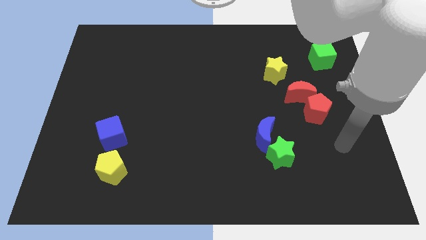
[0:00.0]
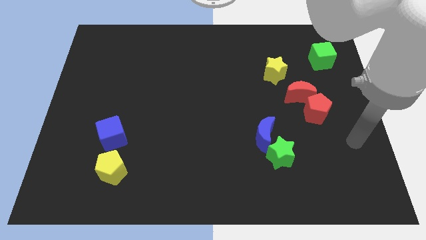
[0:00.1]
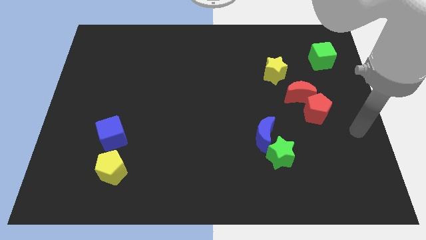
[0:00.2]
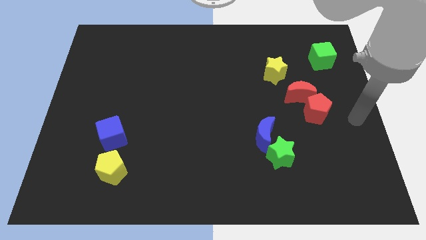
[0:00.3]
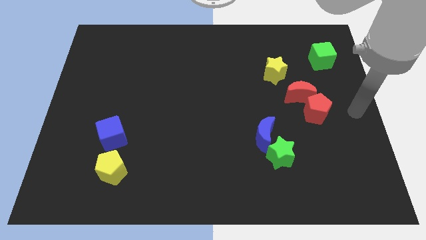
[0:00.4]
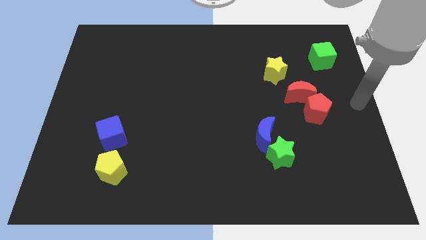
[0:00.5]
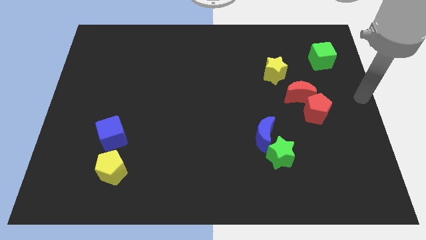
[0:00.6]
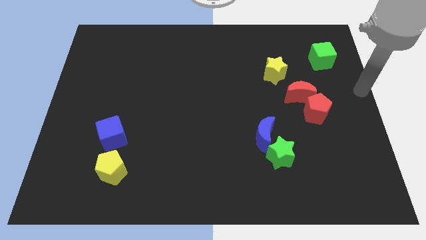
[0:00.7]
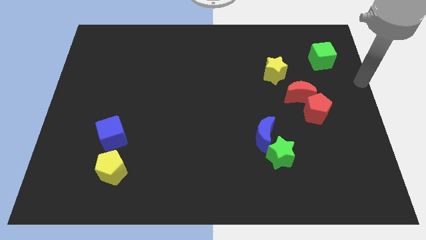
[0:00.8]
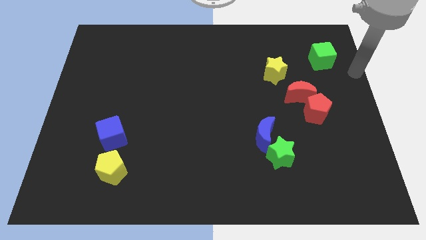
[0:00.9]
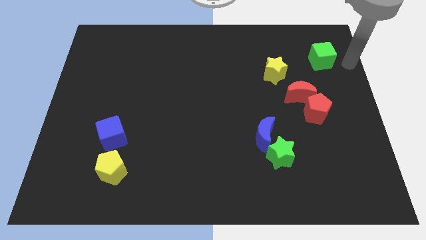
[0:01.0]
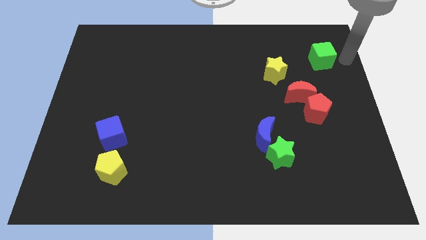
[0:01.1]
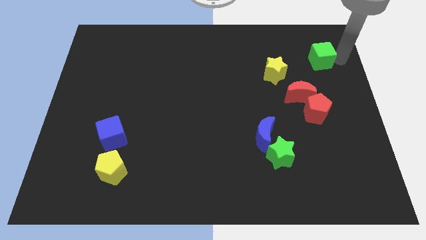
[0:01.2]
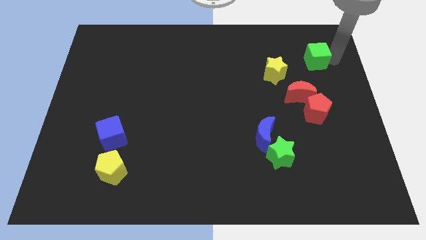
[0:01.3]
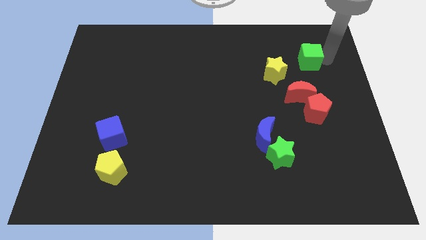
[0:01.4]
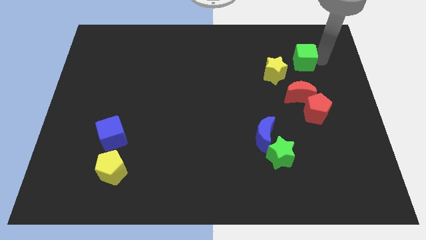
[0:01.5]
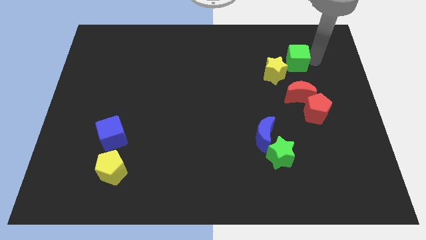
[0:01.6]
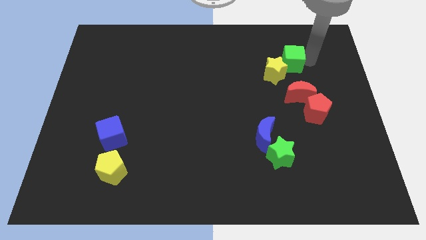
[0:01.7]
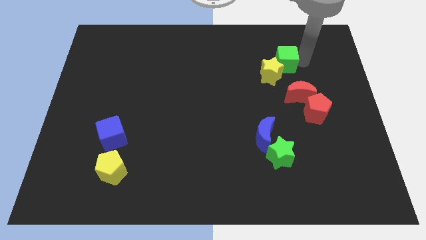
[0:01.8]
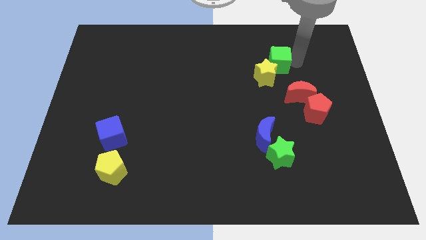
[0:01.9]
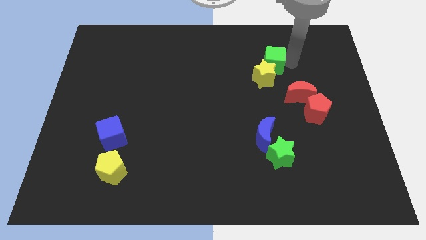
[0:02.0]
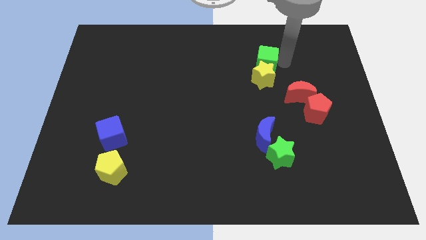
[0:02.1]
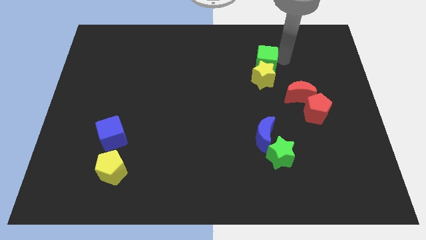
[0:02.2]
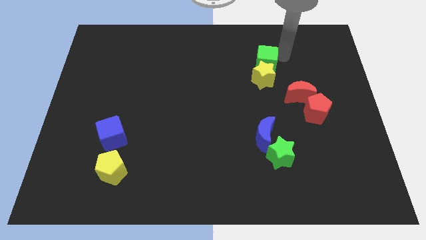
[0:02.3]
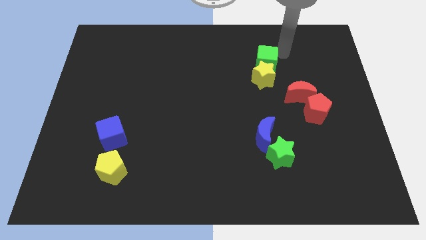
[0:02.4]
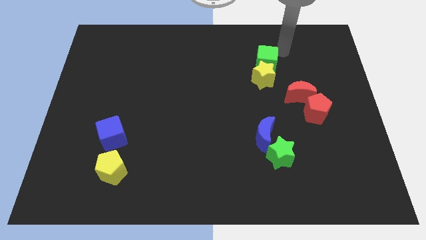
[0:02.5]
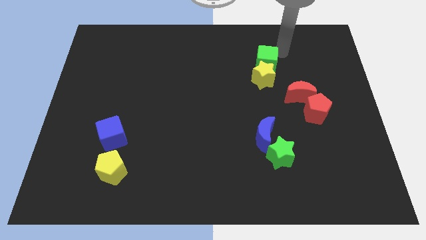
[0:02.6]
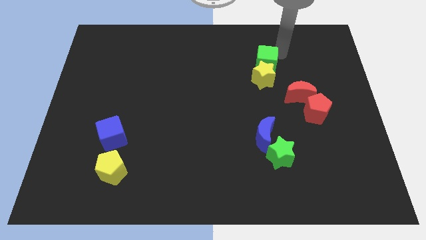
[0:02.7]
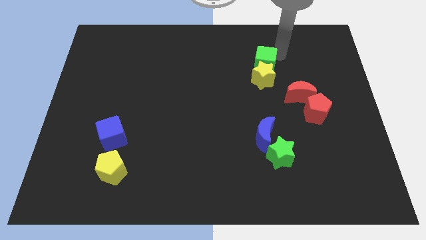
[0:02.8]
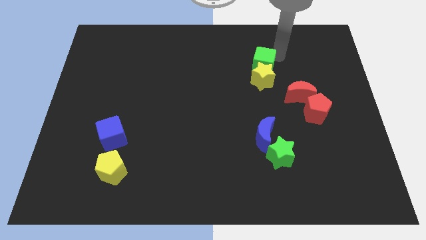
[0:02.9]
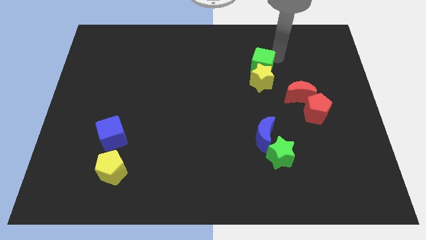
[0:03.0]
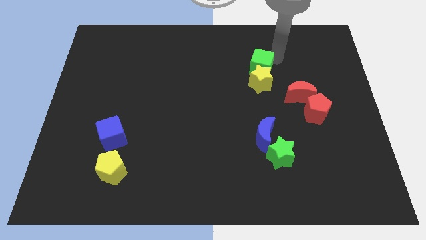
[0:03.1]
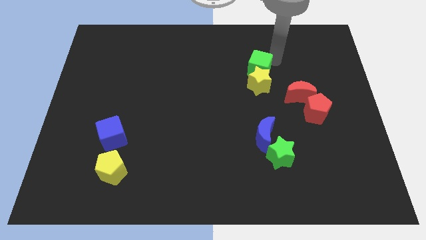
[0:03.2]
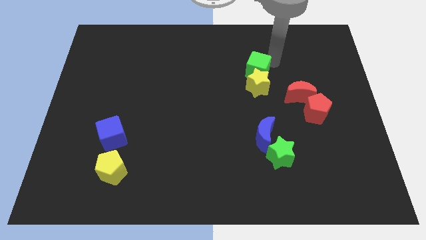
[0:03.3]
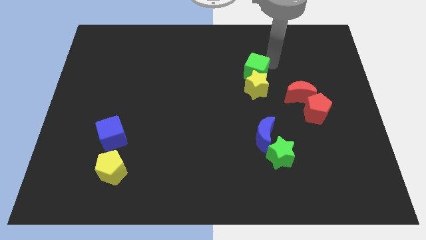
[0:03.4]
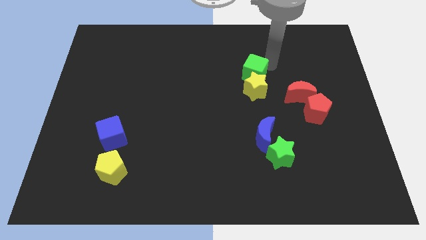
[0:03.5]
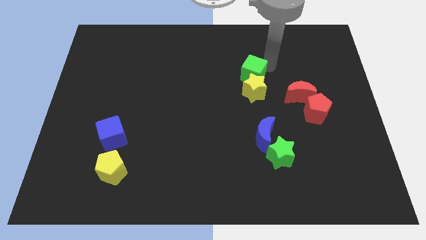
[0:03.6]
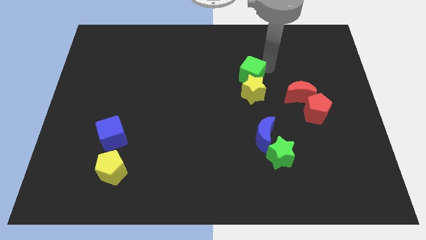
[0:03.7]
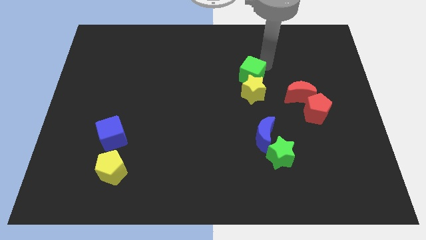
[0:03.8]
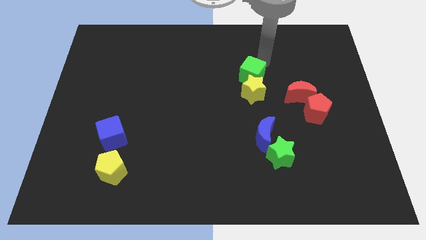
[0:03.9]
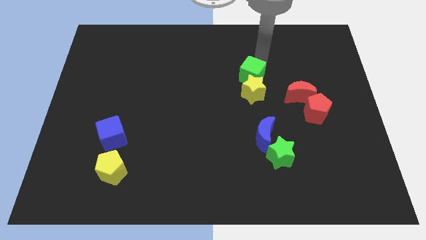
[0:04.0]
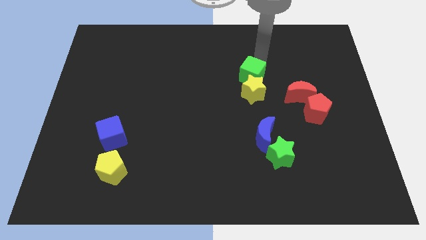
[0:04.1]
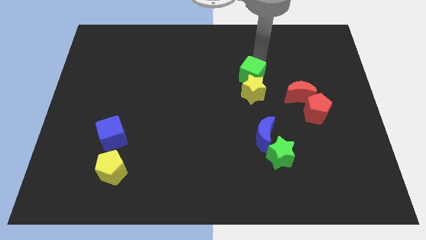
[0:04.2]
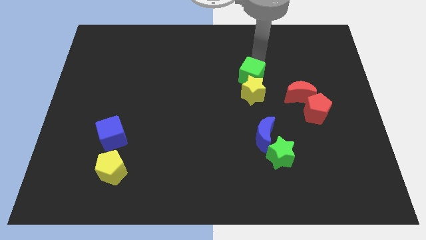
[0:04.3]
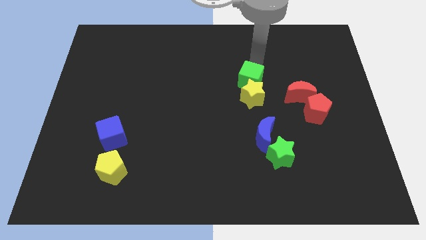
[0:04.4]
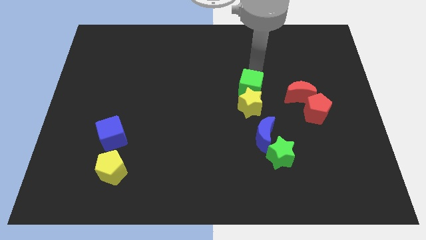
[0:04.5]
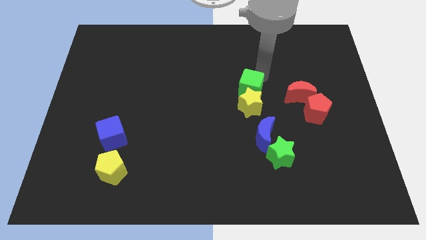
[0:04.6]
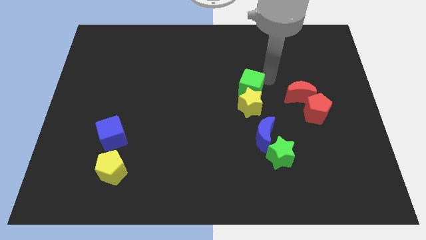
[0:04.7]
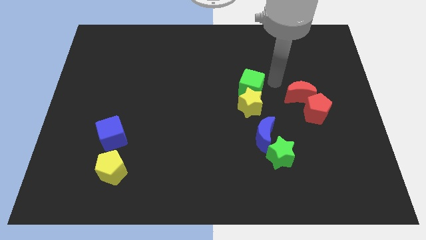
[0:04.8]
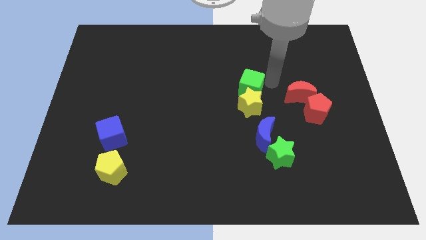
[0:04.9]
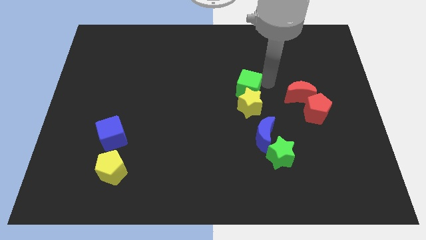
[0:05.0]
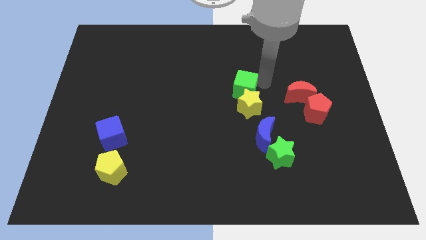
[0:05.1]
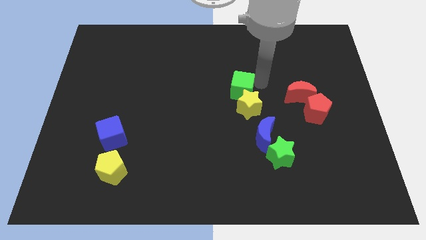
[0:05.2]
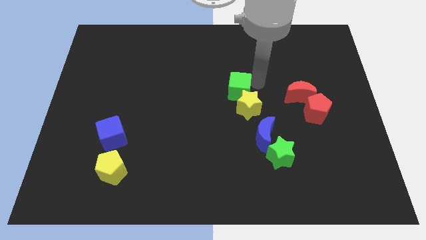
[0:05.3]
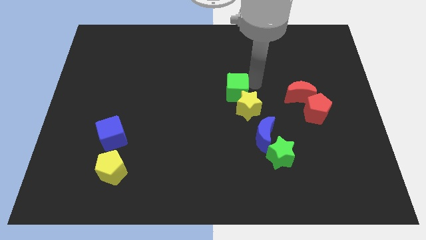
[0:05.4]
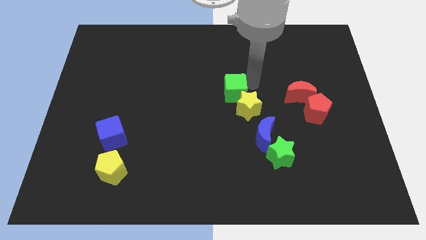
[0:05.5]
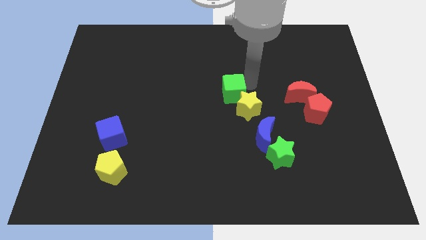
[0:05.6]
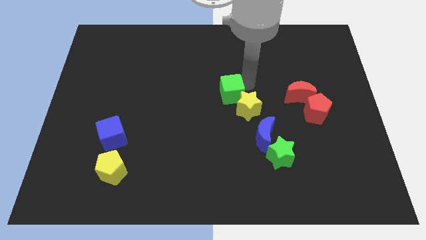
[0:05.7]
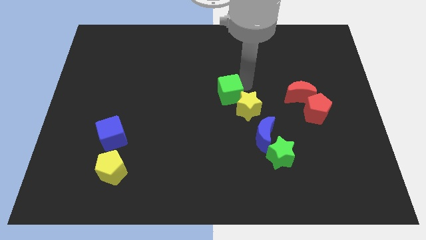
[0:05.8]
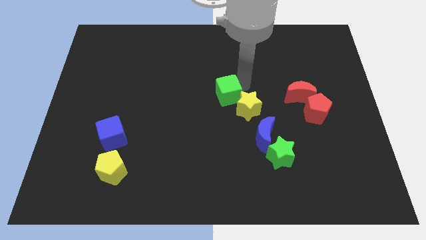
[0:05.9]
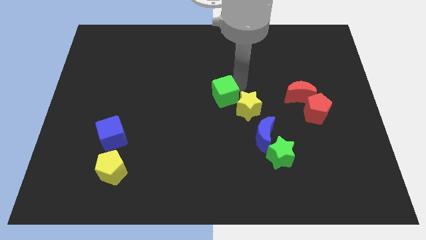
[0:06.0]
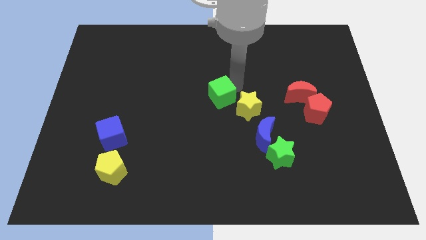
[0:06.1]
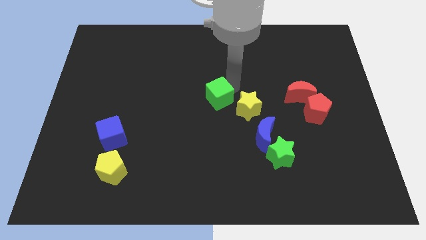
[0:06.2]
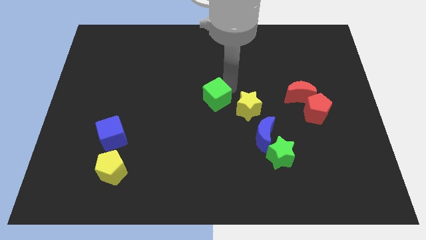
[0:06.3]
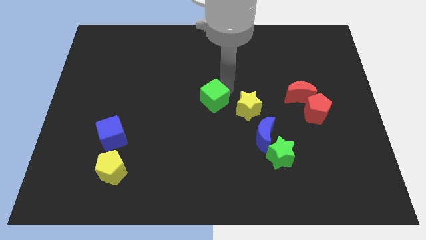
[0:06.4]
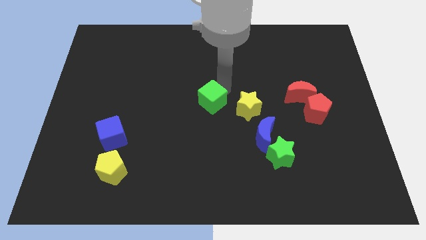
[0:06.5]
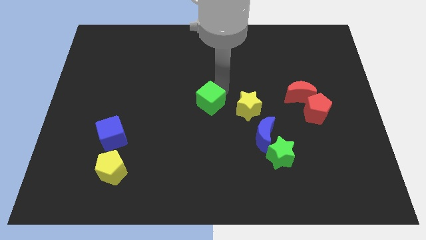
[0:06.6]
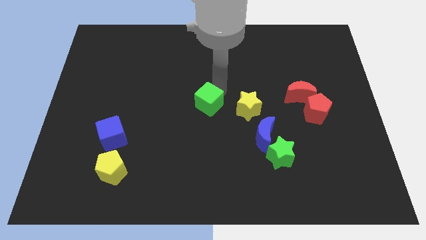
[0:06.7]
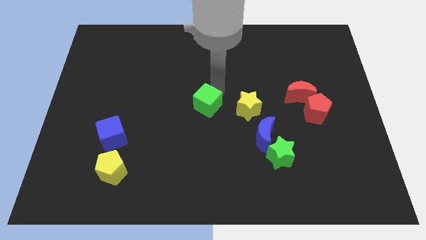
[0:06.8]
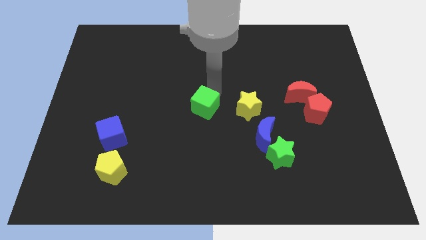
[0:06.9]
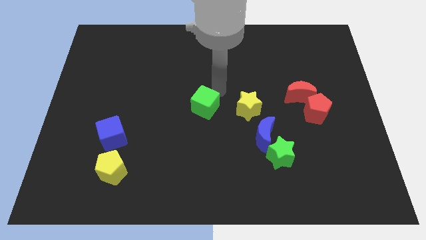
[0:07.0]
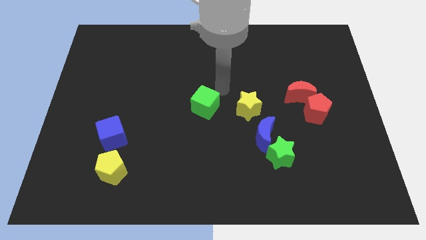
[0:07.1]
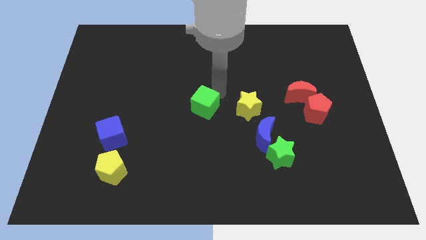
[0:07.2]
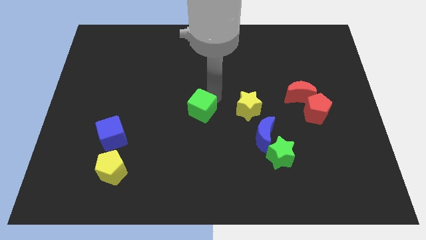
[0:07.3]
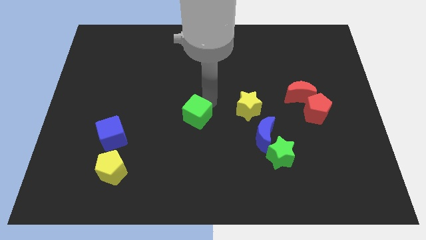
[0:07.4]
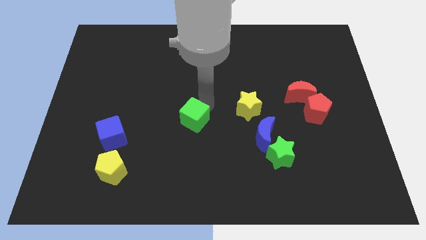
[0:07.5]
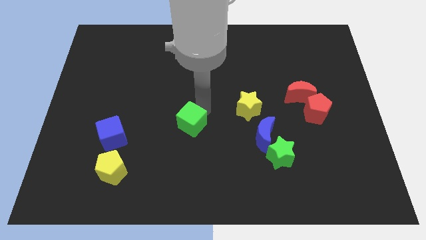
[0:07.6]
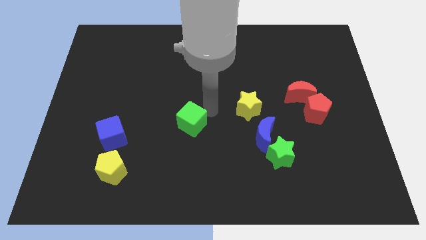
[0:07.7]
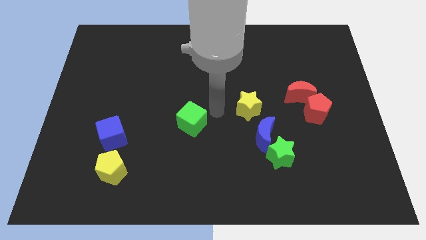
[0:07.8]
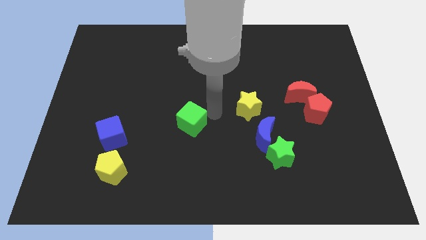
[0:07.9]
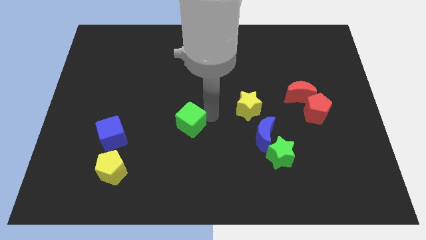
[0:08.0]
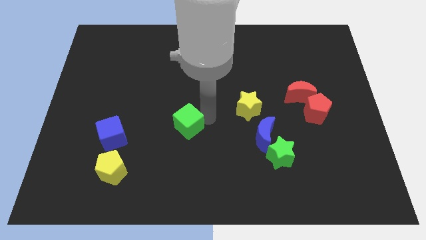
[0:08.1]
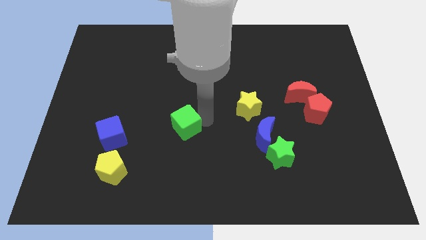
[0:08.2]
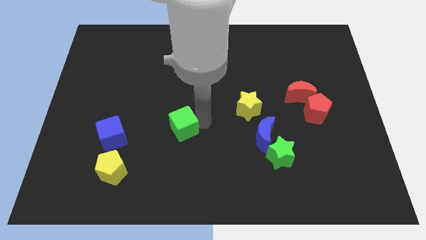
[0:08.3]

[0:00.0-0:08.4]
push the green cube to the right side of the blue cube
